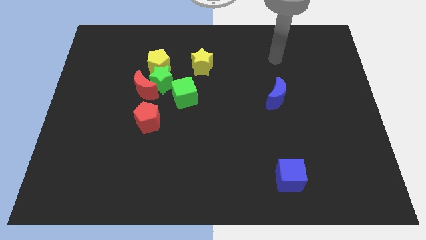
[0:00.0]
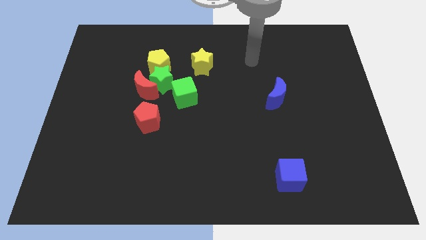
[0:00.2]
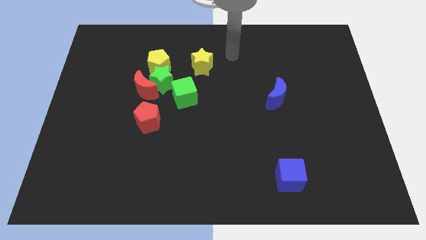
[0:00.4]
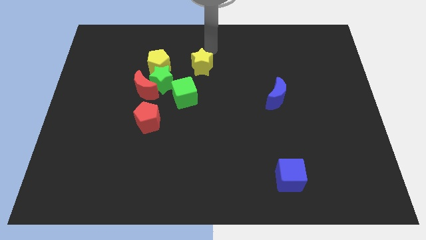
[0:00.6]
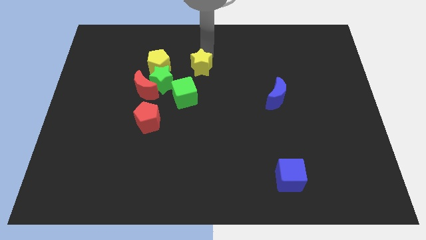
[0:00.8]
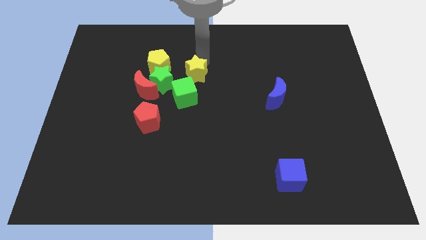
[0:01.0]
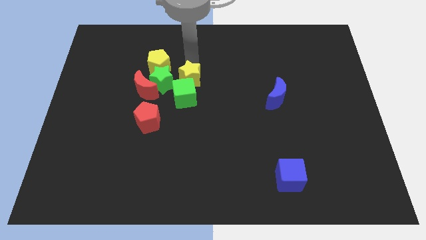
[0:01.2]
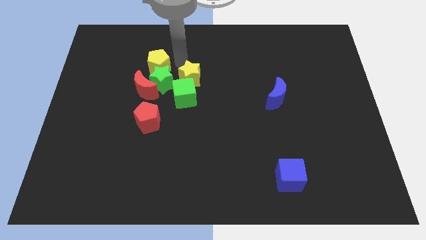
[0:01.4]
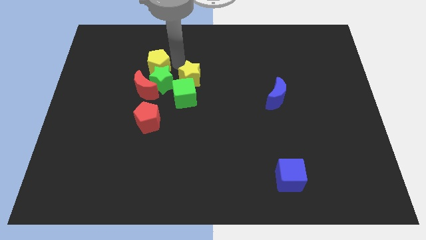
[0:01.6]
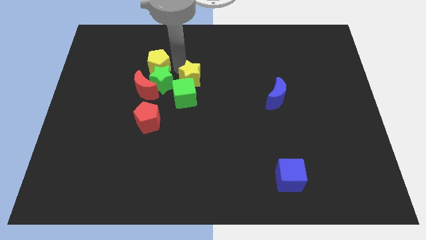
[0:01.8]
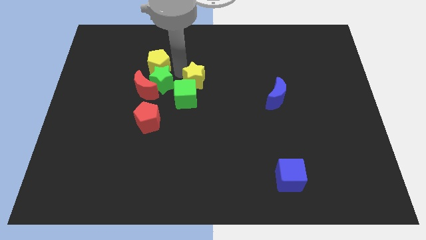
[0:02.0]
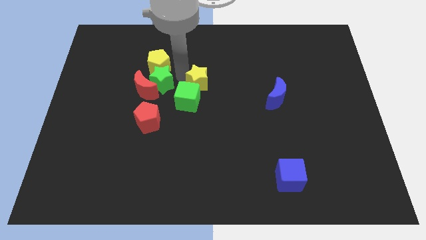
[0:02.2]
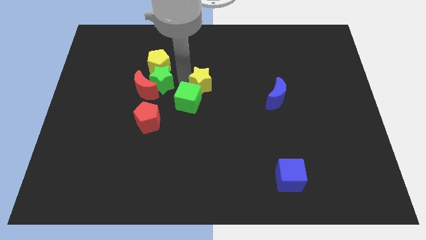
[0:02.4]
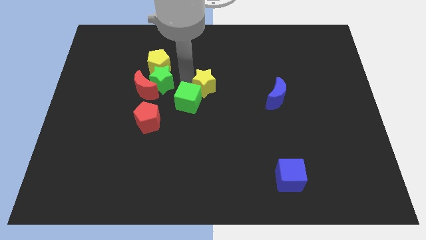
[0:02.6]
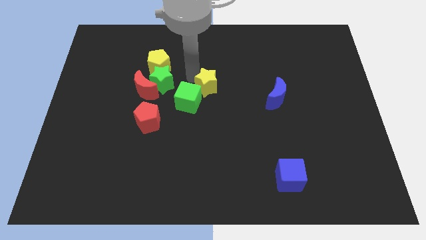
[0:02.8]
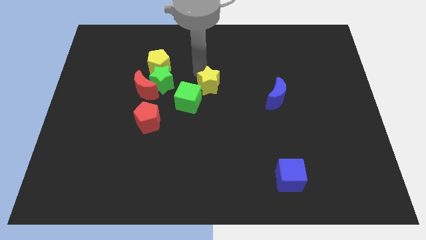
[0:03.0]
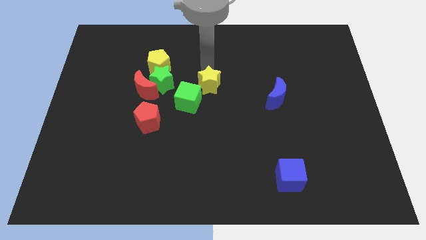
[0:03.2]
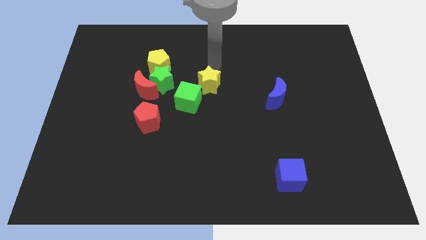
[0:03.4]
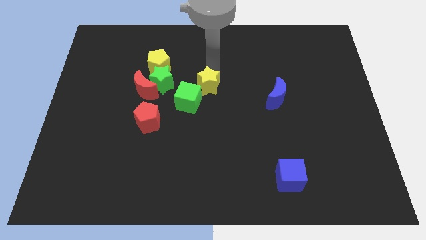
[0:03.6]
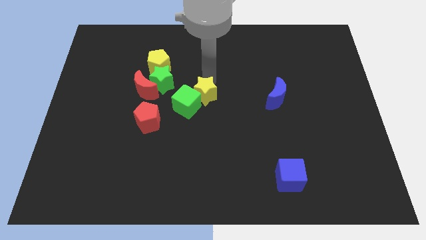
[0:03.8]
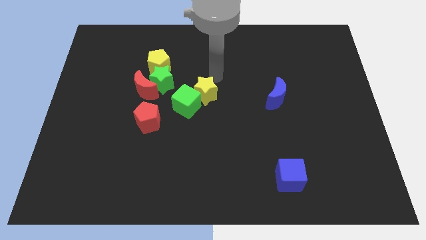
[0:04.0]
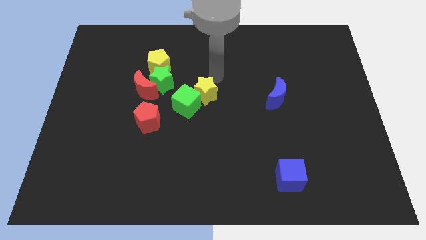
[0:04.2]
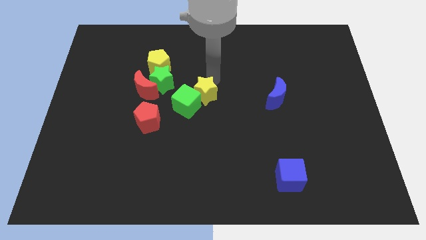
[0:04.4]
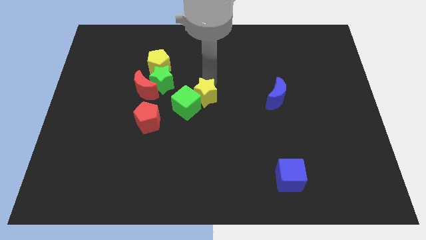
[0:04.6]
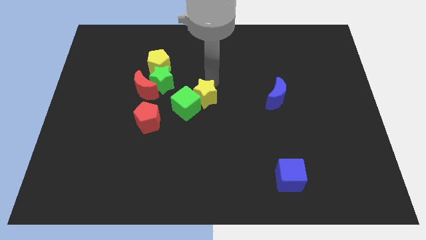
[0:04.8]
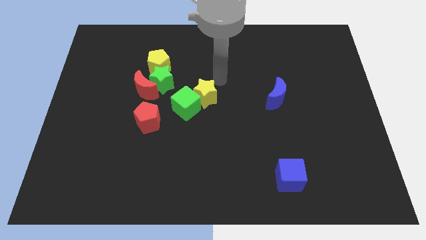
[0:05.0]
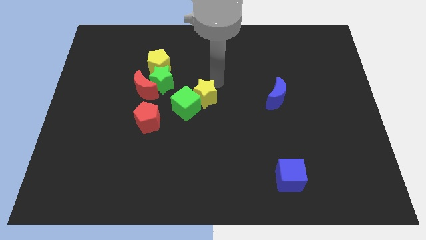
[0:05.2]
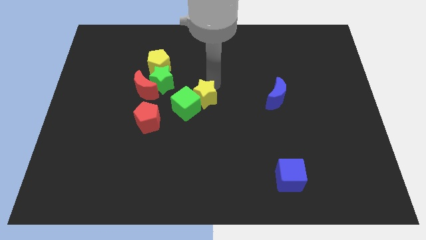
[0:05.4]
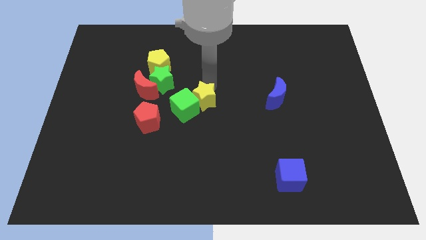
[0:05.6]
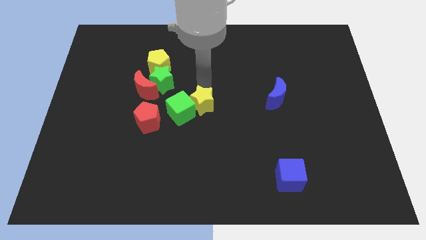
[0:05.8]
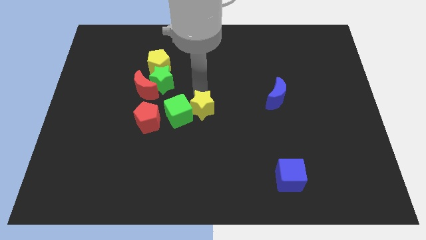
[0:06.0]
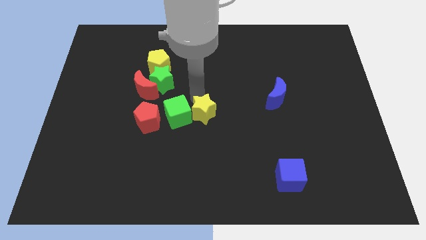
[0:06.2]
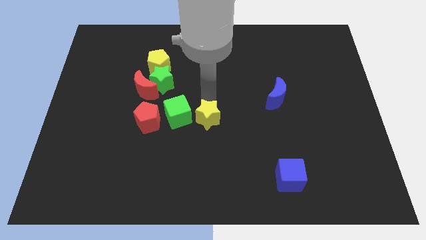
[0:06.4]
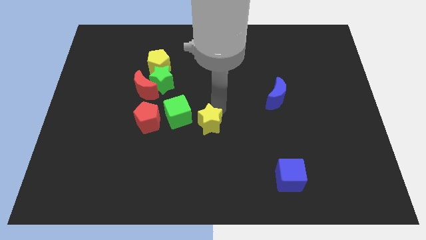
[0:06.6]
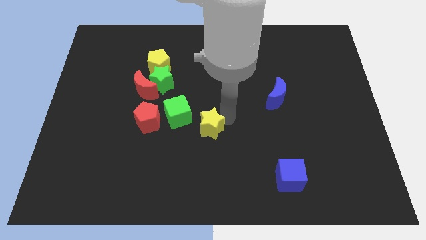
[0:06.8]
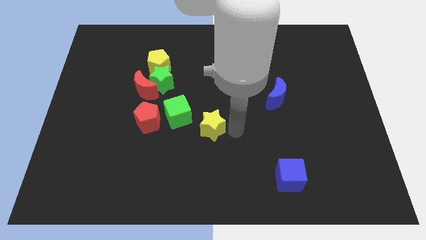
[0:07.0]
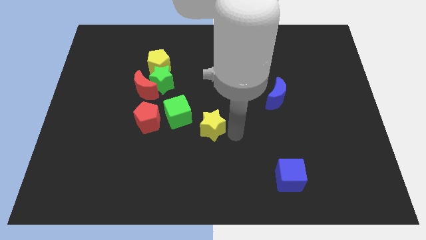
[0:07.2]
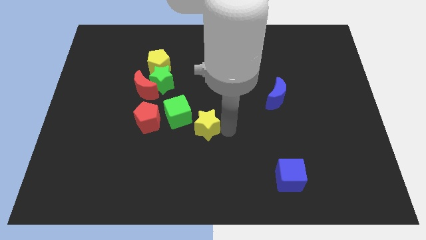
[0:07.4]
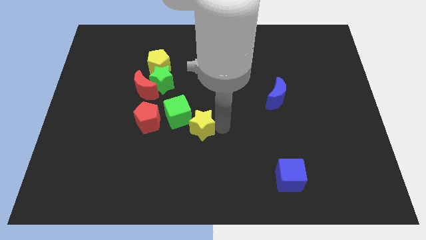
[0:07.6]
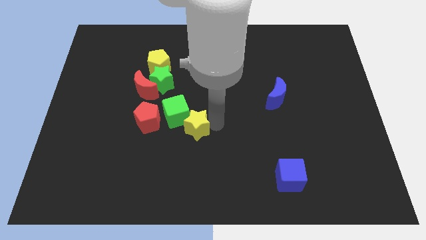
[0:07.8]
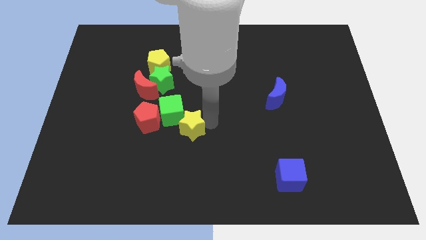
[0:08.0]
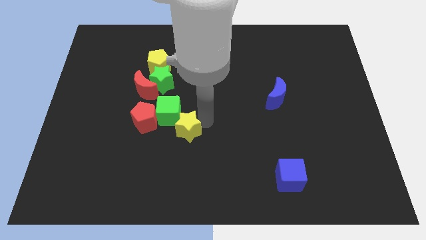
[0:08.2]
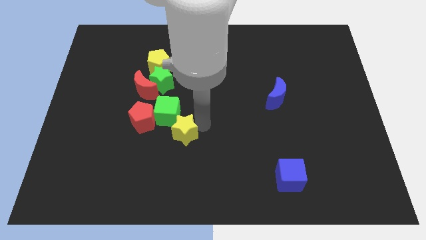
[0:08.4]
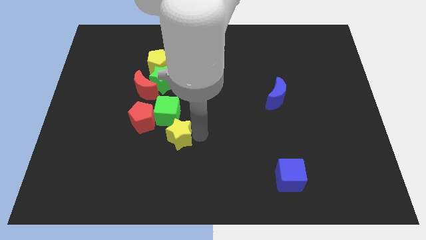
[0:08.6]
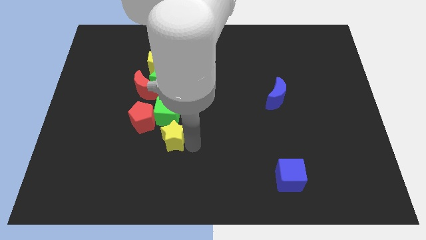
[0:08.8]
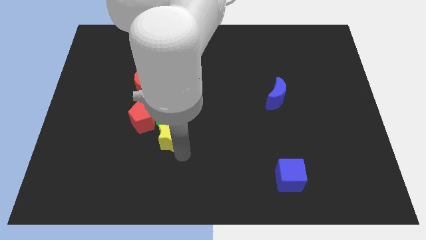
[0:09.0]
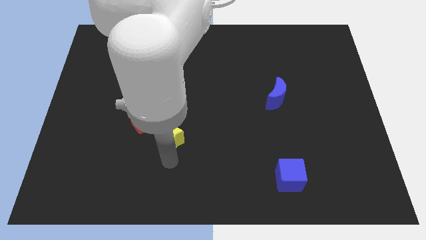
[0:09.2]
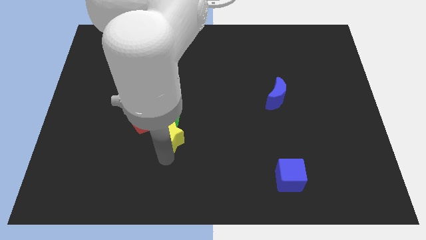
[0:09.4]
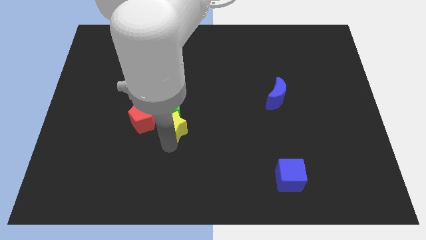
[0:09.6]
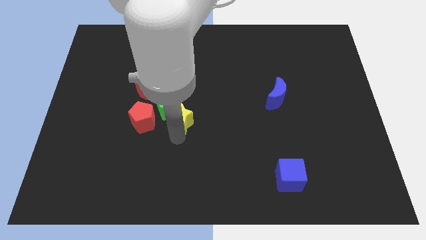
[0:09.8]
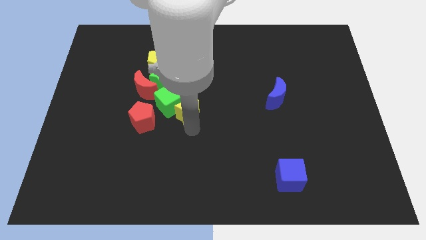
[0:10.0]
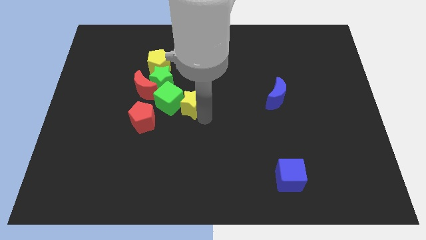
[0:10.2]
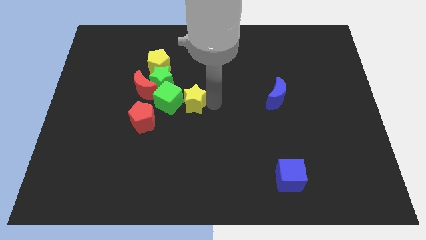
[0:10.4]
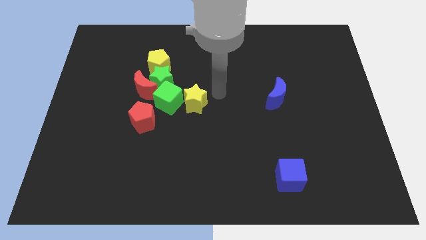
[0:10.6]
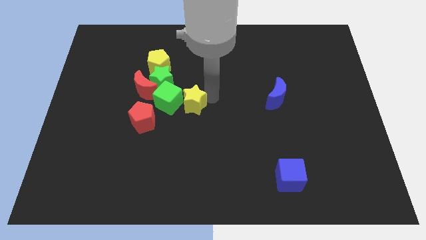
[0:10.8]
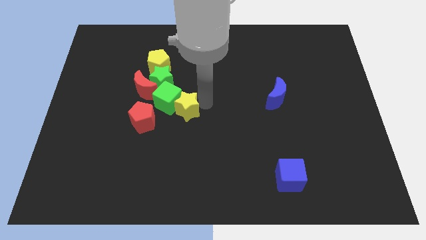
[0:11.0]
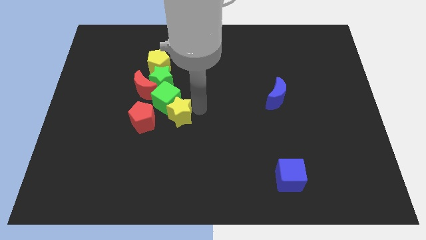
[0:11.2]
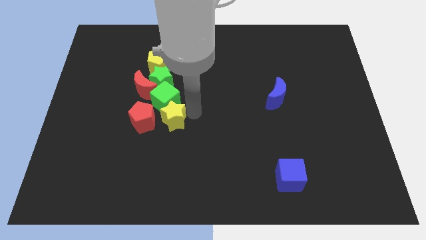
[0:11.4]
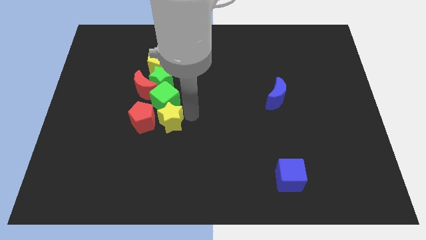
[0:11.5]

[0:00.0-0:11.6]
slide the yellow star close to the red pentagon

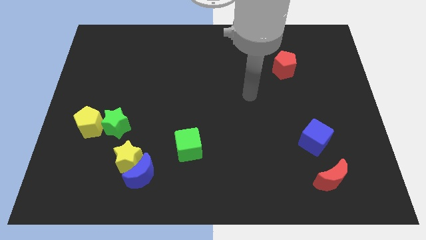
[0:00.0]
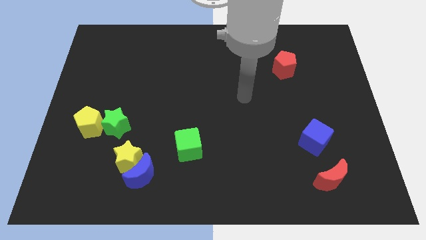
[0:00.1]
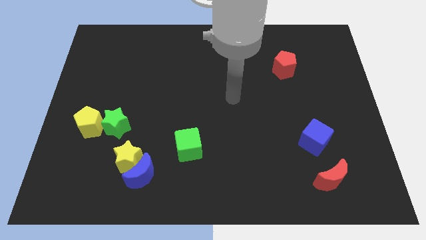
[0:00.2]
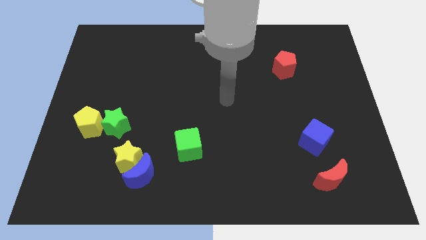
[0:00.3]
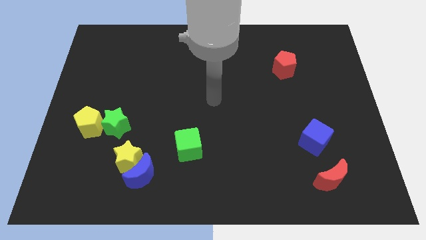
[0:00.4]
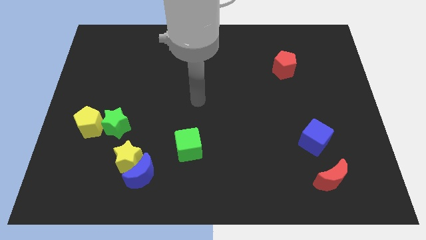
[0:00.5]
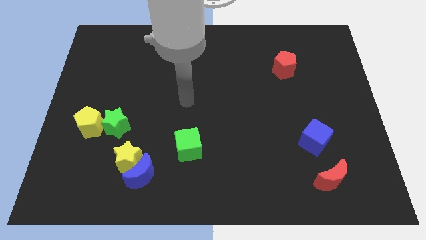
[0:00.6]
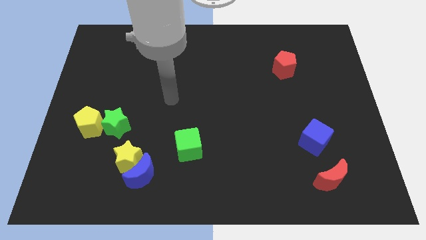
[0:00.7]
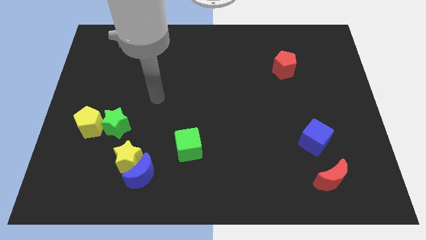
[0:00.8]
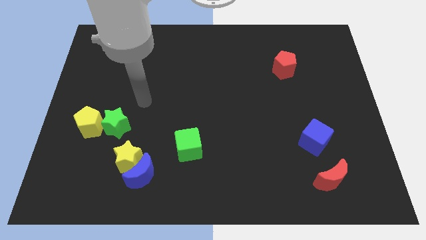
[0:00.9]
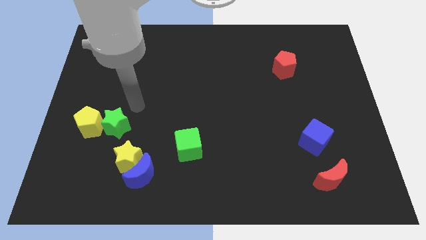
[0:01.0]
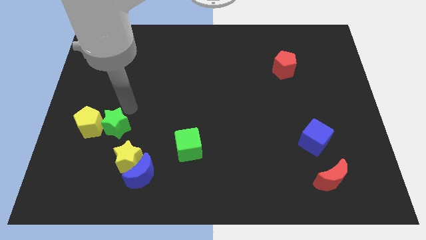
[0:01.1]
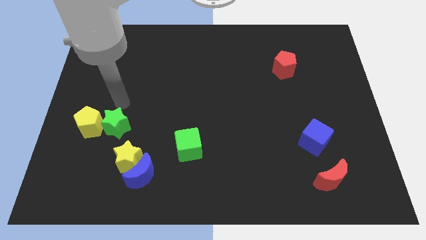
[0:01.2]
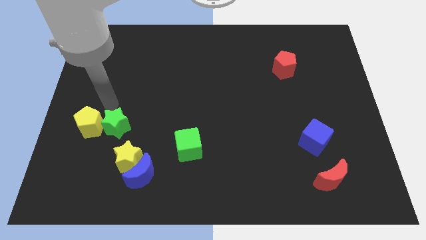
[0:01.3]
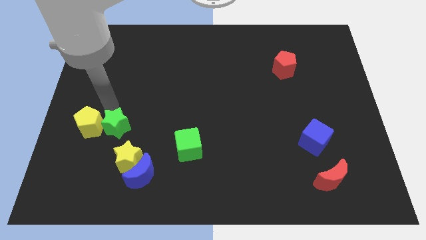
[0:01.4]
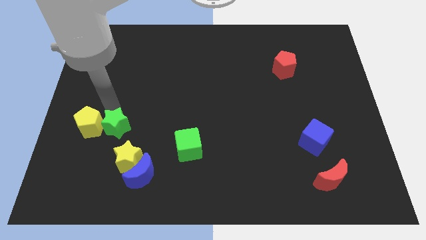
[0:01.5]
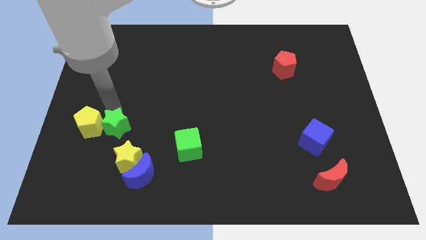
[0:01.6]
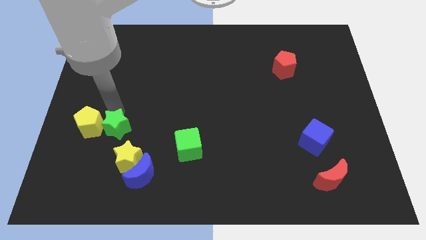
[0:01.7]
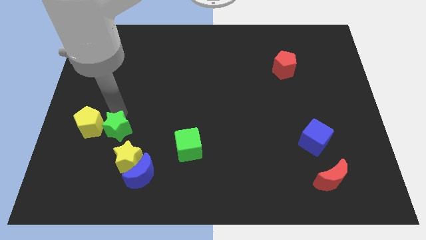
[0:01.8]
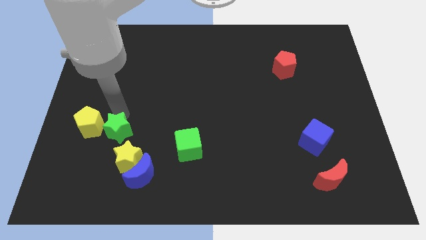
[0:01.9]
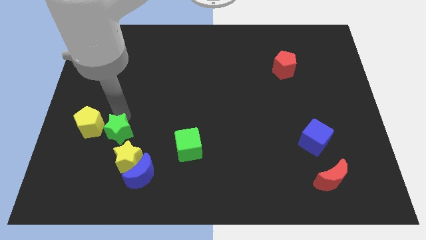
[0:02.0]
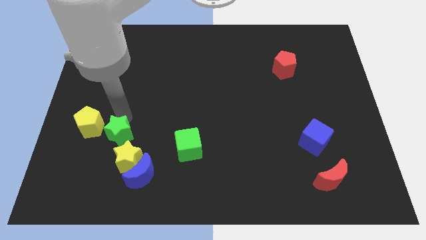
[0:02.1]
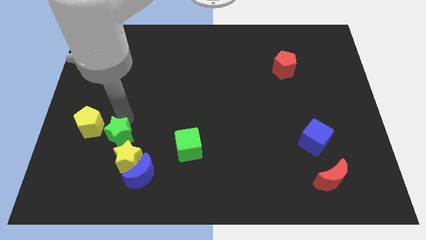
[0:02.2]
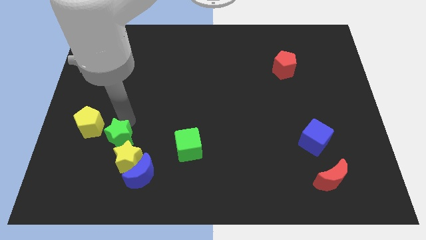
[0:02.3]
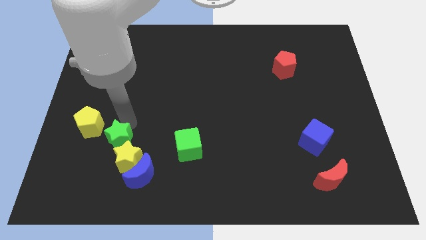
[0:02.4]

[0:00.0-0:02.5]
move the green star next to the yellow star
